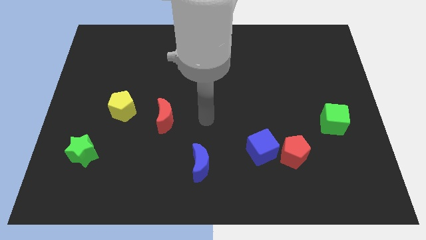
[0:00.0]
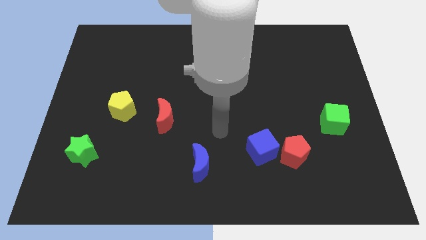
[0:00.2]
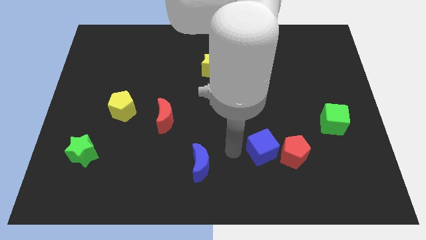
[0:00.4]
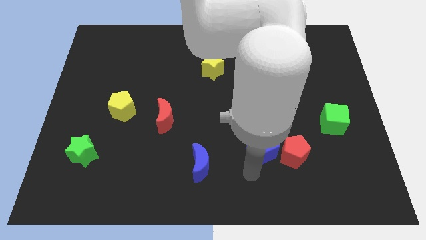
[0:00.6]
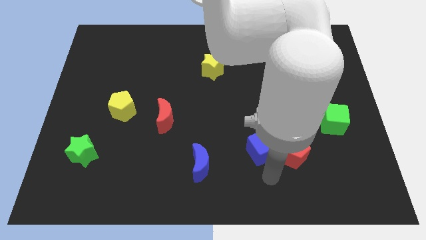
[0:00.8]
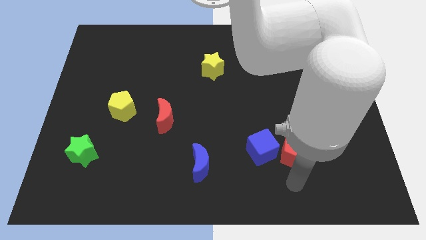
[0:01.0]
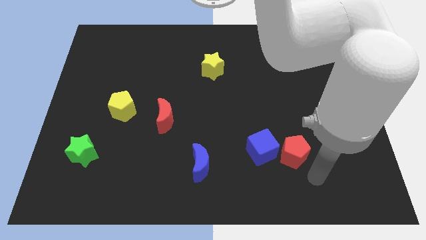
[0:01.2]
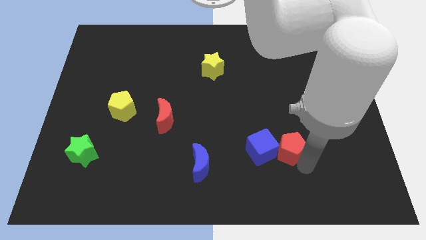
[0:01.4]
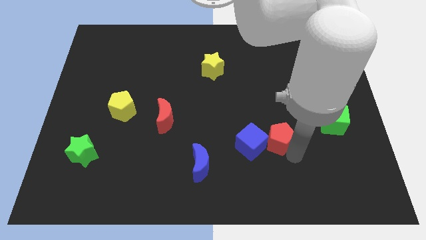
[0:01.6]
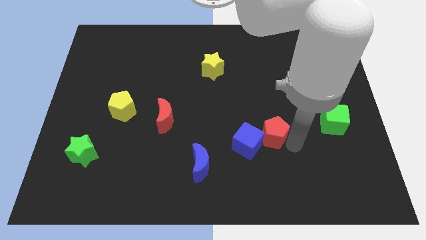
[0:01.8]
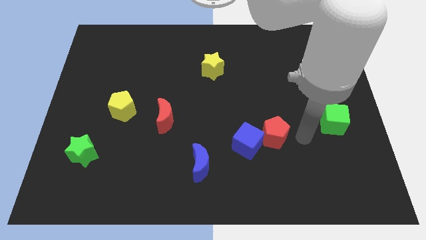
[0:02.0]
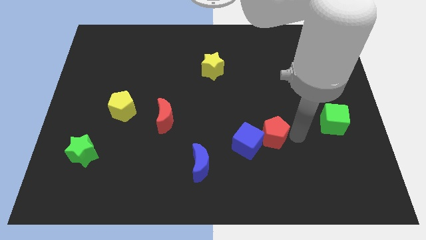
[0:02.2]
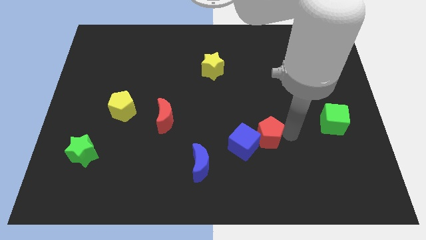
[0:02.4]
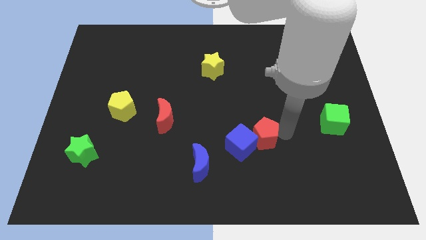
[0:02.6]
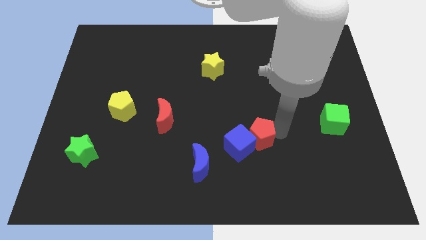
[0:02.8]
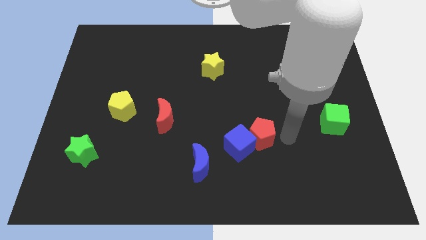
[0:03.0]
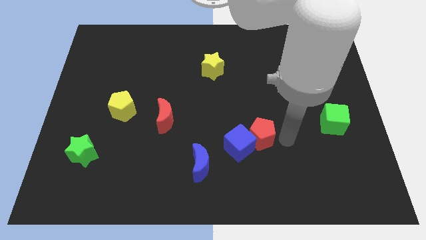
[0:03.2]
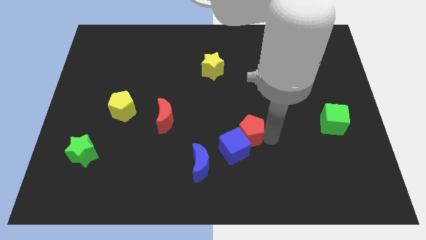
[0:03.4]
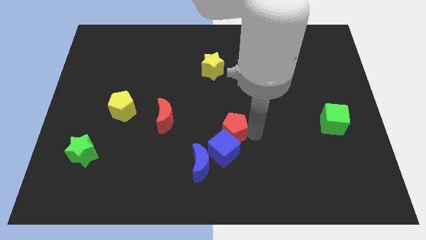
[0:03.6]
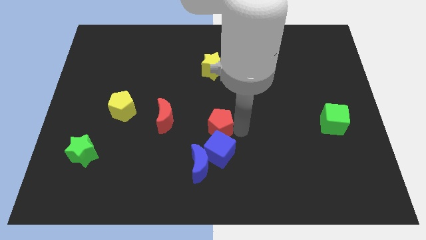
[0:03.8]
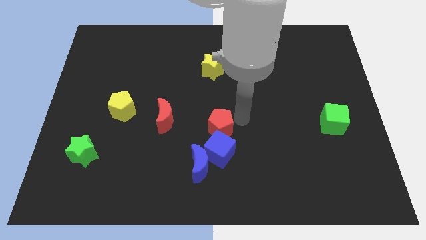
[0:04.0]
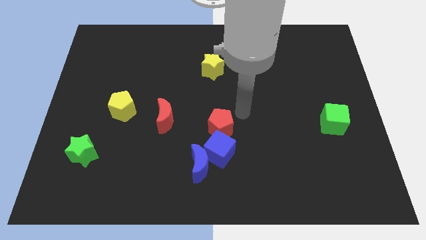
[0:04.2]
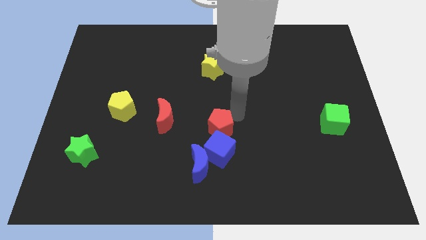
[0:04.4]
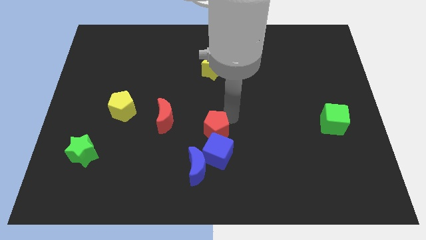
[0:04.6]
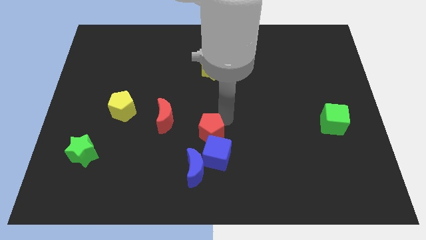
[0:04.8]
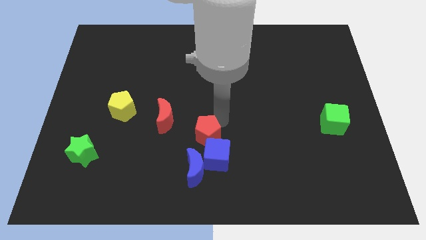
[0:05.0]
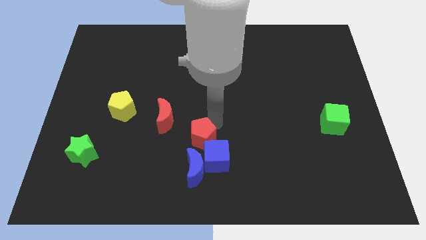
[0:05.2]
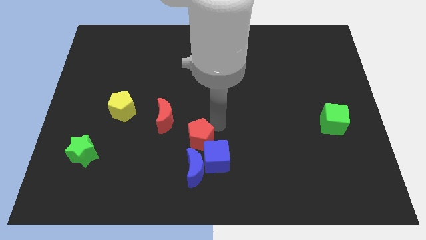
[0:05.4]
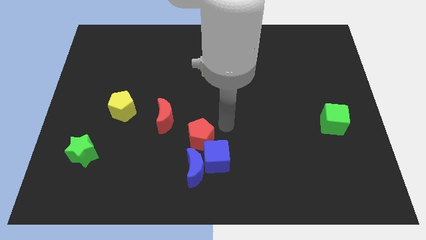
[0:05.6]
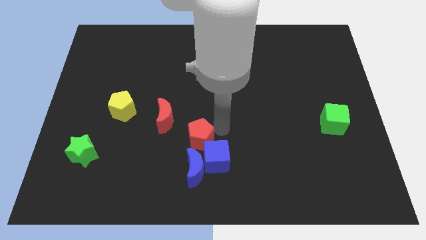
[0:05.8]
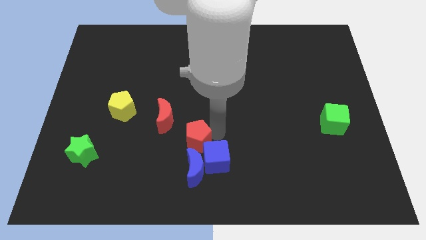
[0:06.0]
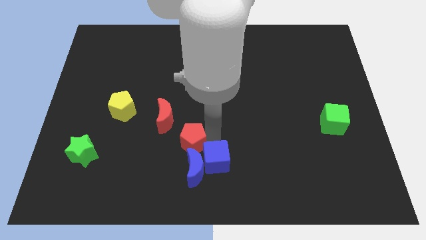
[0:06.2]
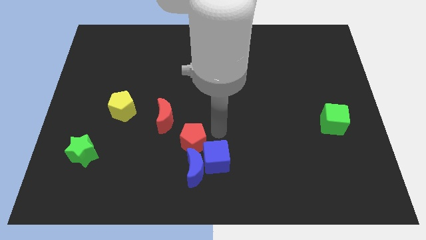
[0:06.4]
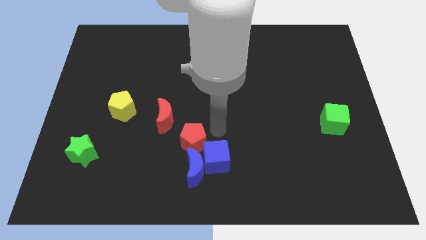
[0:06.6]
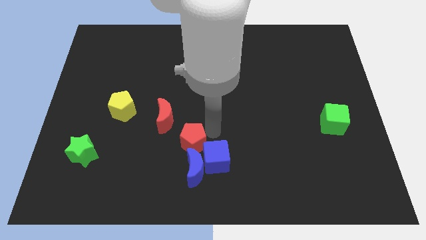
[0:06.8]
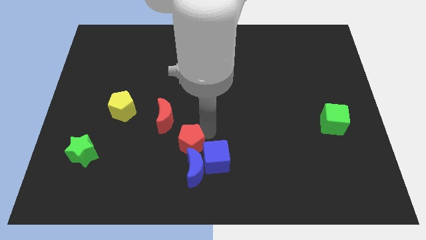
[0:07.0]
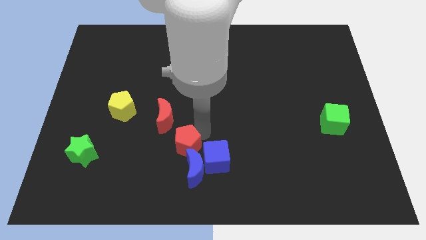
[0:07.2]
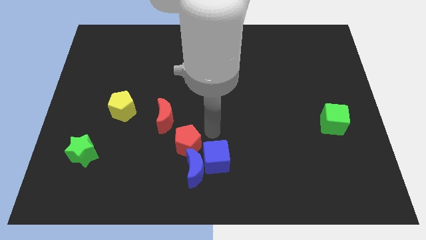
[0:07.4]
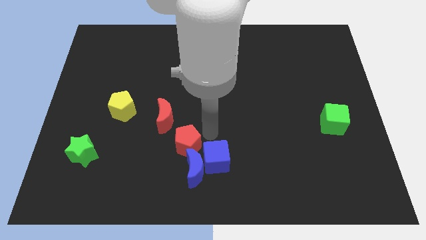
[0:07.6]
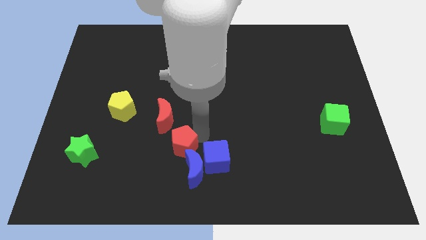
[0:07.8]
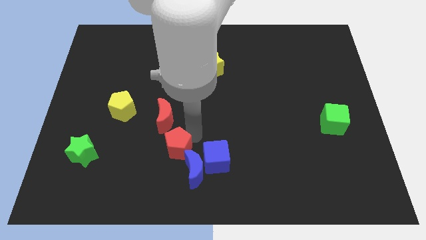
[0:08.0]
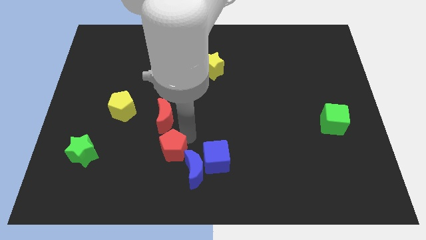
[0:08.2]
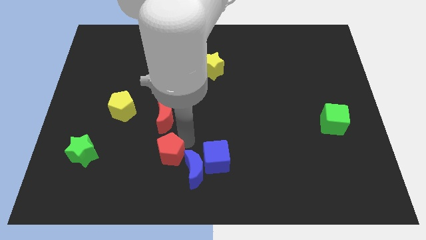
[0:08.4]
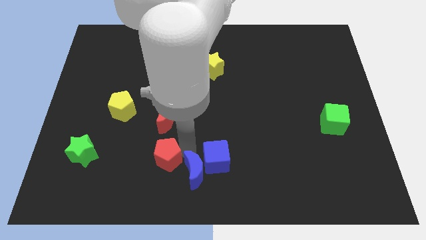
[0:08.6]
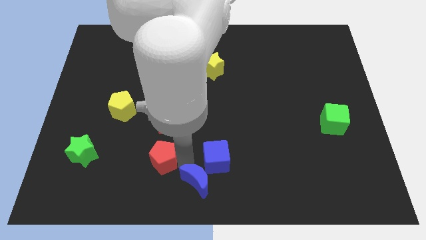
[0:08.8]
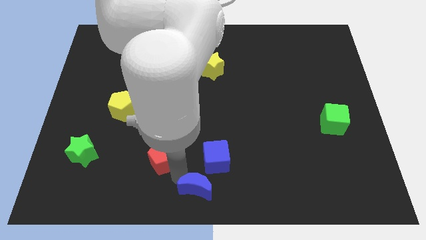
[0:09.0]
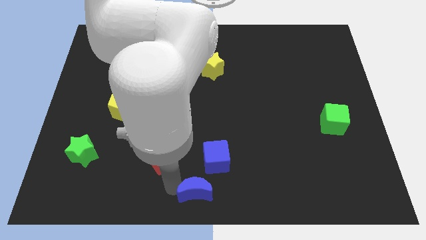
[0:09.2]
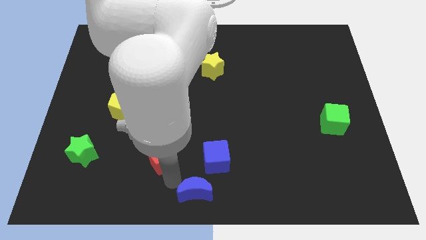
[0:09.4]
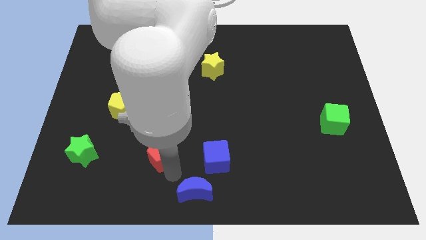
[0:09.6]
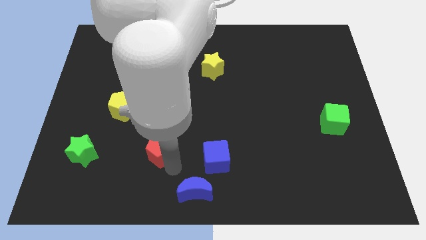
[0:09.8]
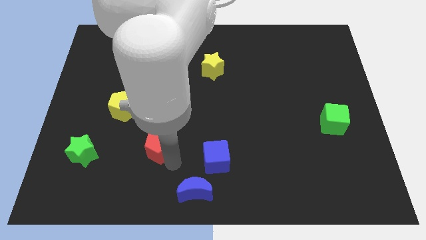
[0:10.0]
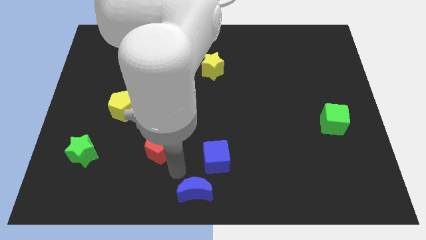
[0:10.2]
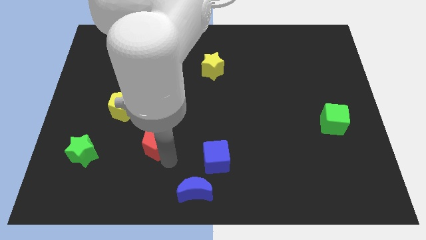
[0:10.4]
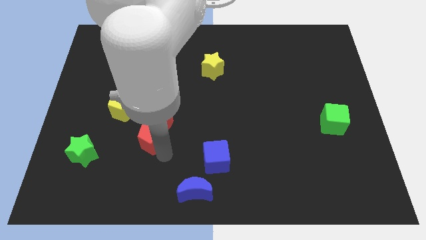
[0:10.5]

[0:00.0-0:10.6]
push the red pentagon to the bottom right side of the yellow pentagon

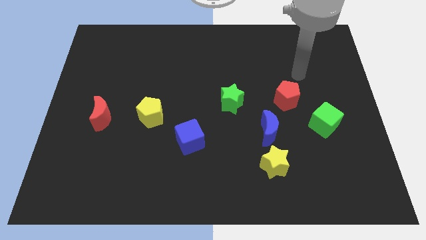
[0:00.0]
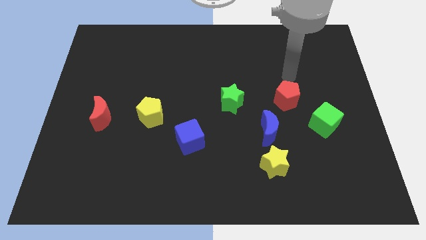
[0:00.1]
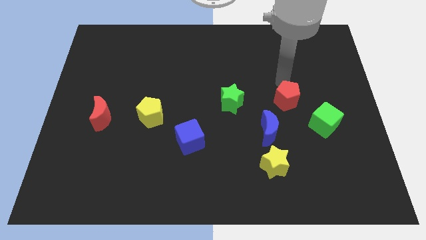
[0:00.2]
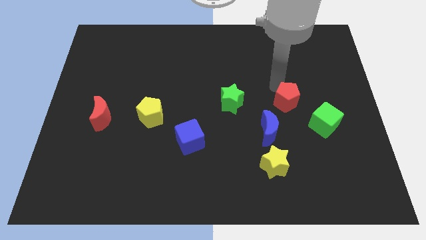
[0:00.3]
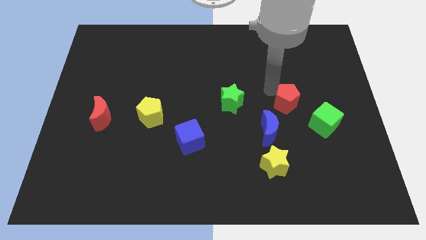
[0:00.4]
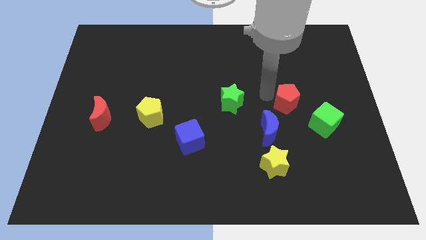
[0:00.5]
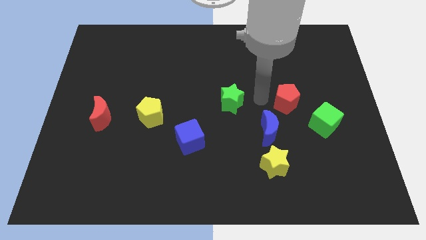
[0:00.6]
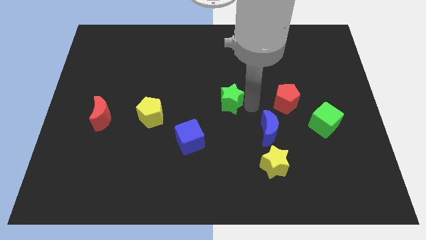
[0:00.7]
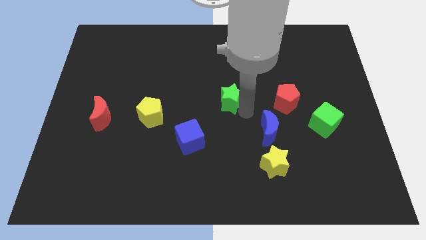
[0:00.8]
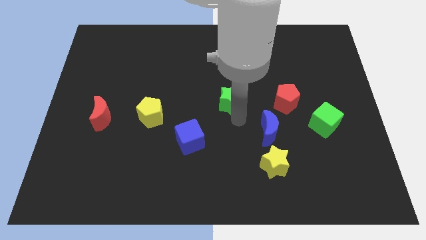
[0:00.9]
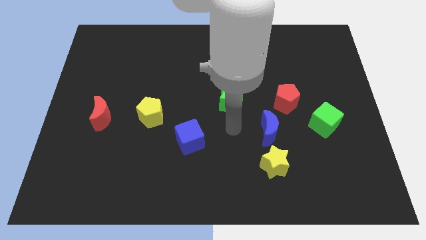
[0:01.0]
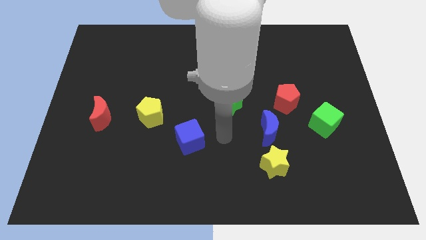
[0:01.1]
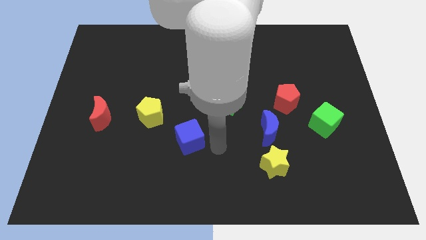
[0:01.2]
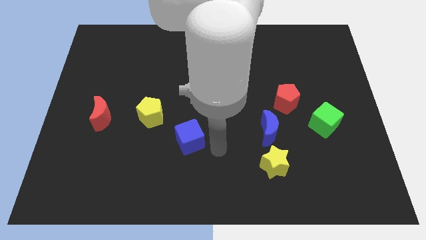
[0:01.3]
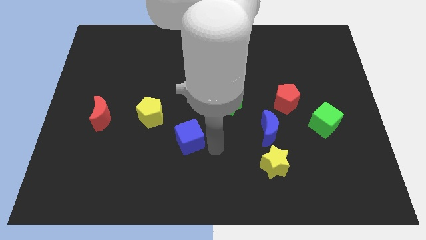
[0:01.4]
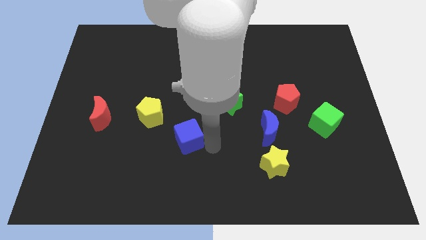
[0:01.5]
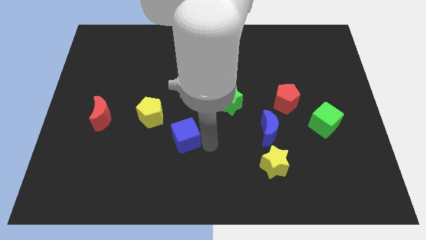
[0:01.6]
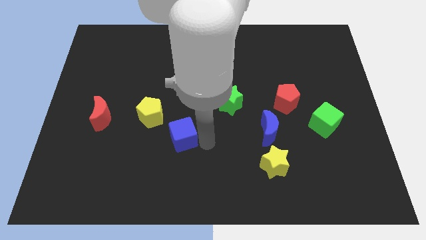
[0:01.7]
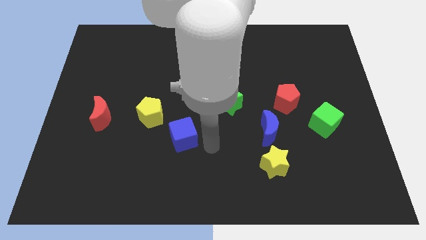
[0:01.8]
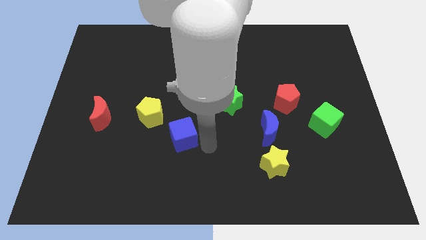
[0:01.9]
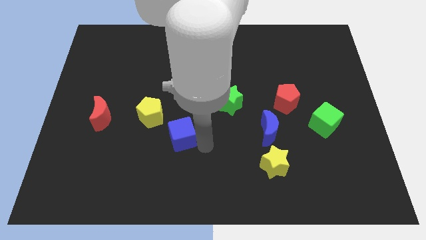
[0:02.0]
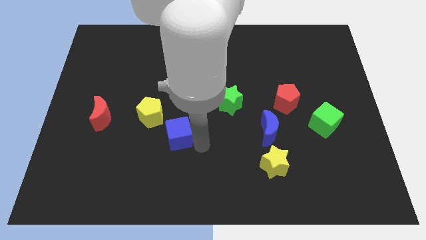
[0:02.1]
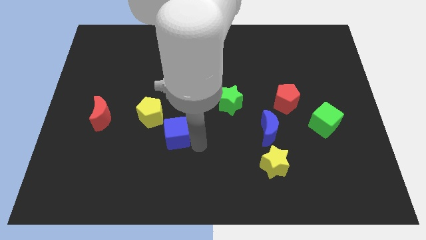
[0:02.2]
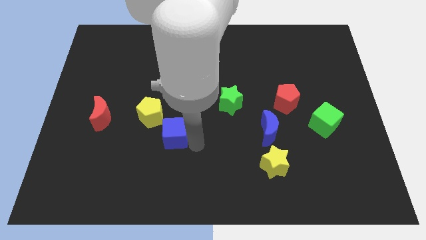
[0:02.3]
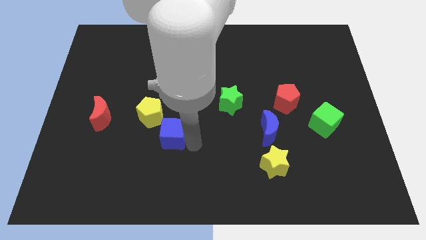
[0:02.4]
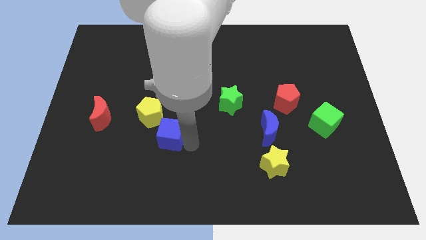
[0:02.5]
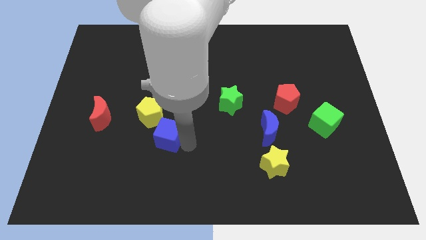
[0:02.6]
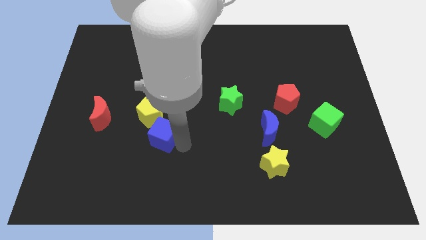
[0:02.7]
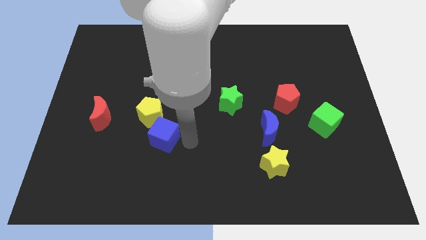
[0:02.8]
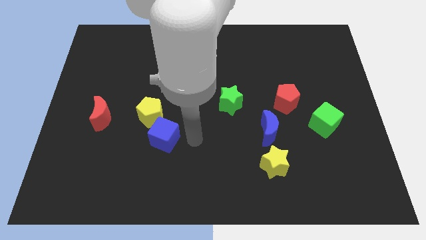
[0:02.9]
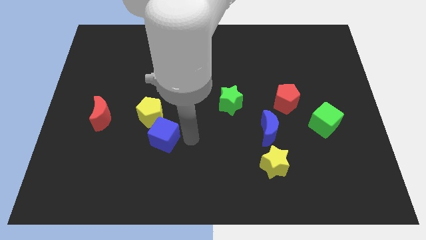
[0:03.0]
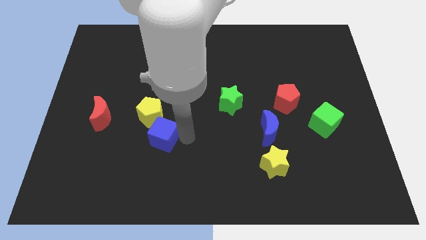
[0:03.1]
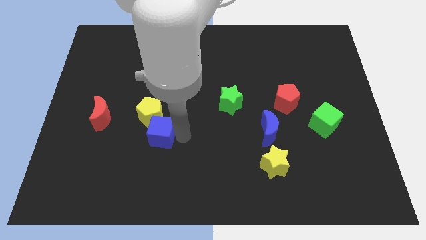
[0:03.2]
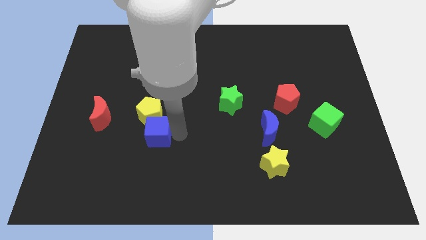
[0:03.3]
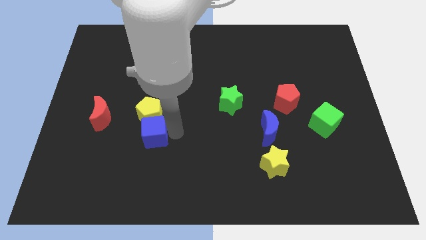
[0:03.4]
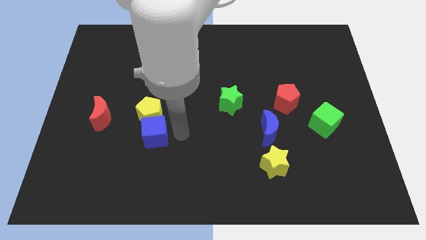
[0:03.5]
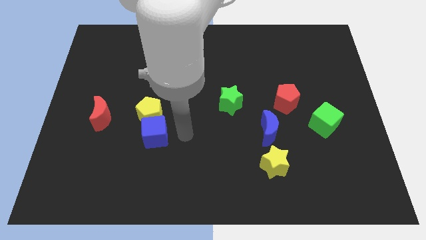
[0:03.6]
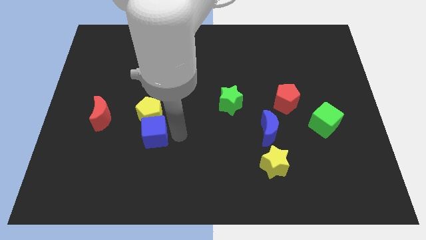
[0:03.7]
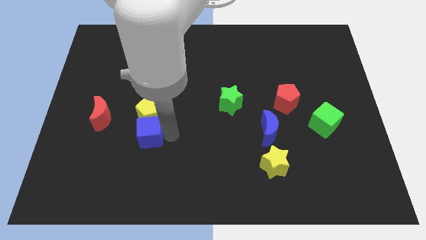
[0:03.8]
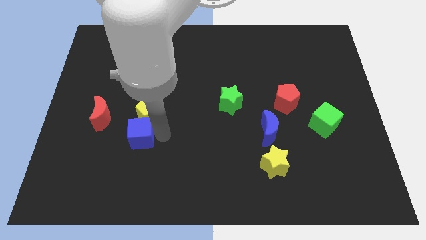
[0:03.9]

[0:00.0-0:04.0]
push the blue cube to the bottom right side of the red moon
